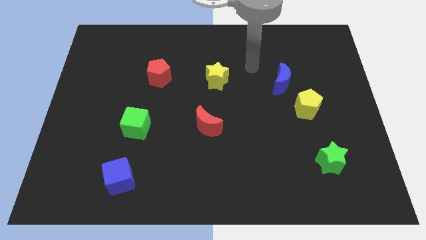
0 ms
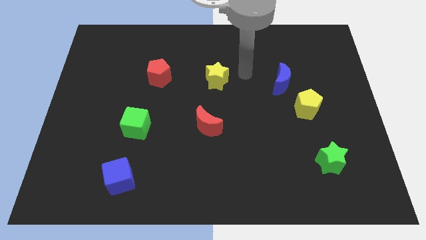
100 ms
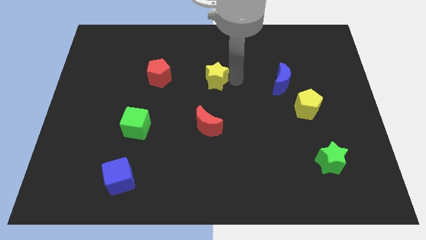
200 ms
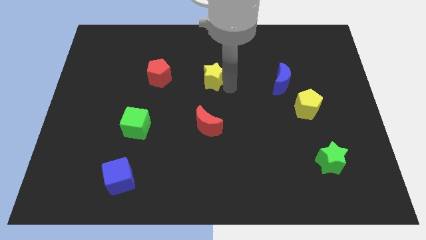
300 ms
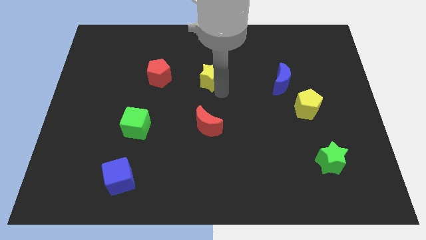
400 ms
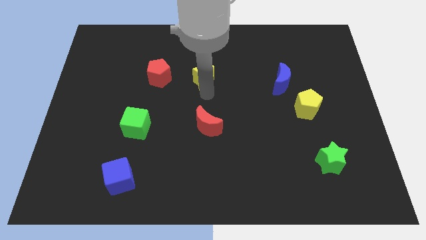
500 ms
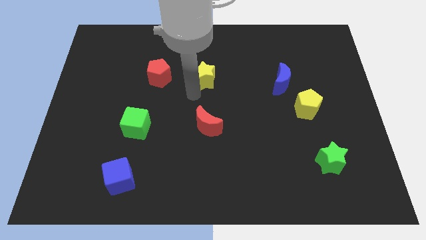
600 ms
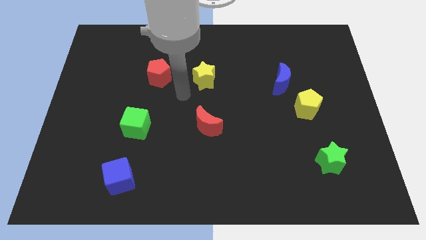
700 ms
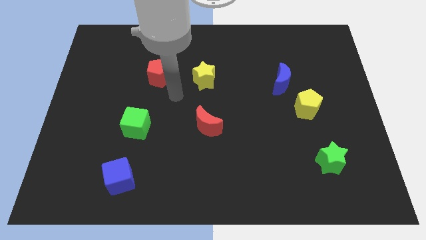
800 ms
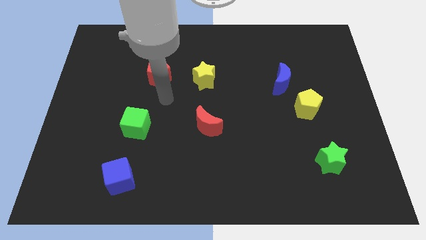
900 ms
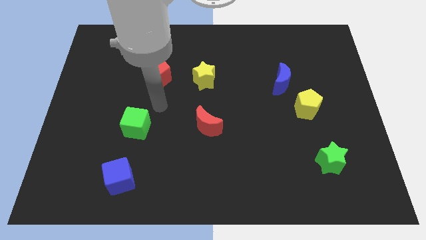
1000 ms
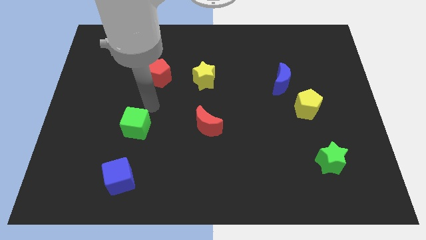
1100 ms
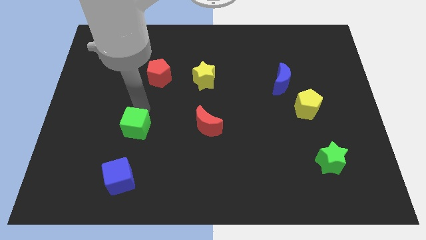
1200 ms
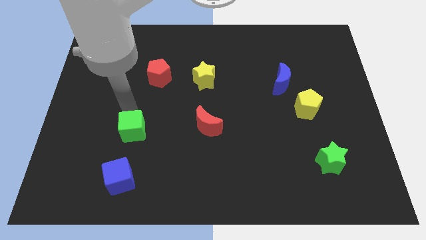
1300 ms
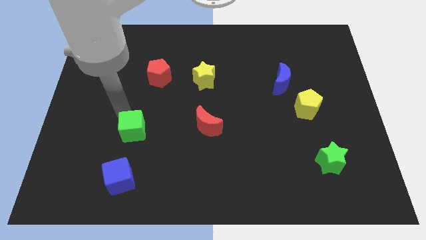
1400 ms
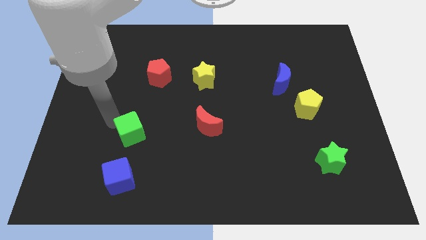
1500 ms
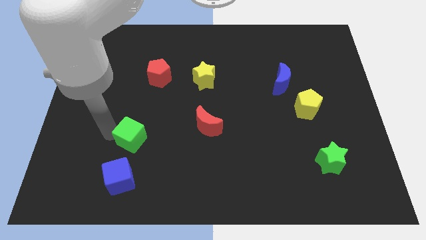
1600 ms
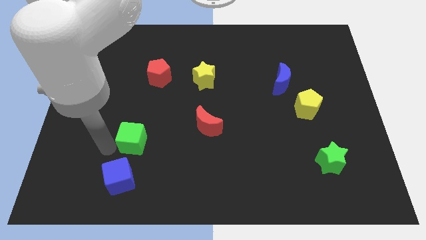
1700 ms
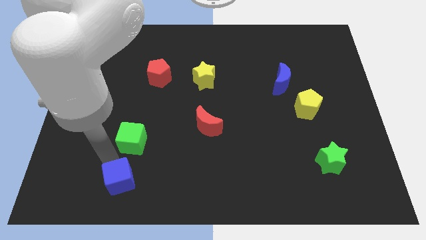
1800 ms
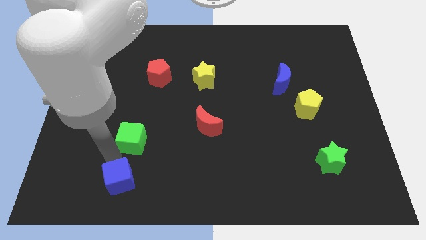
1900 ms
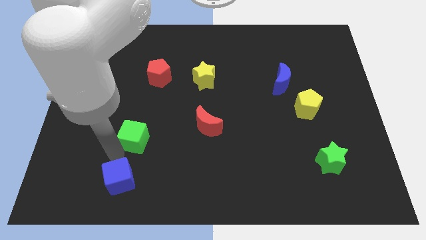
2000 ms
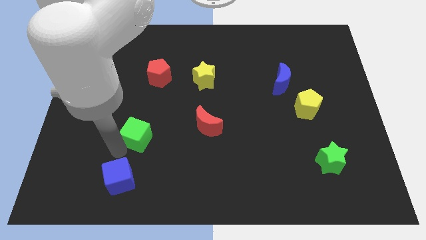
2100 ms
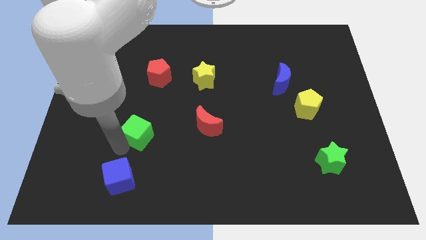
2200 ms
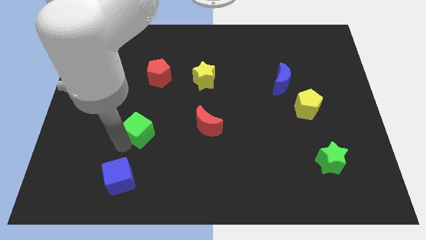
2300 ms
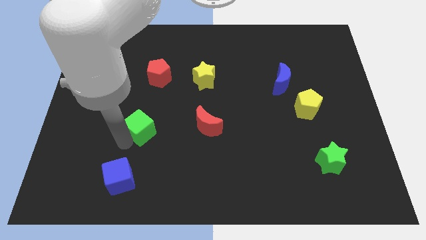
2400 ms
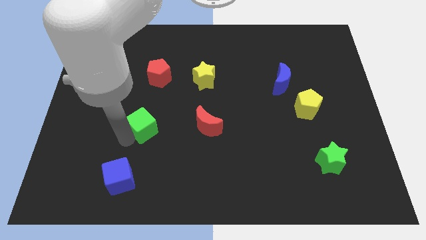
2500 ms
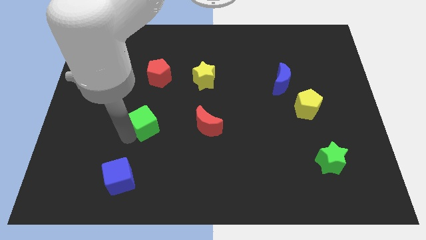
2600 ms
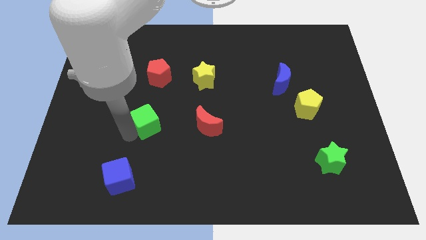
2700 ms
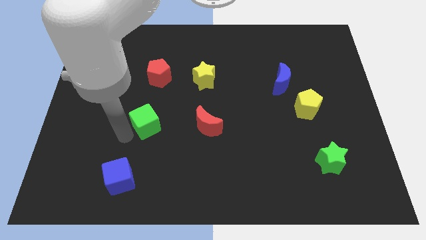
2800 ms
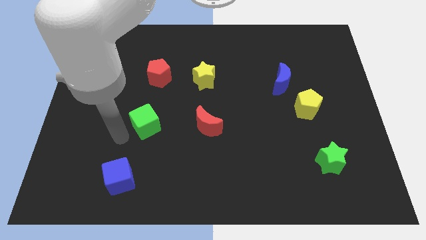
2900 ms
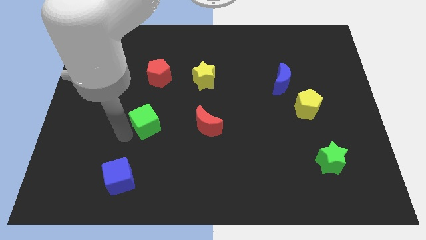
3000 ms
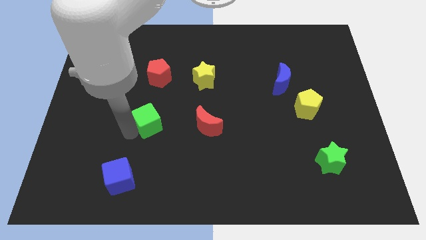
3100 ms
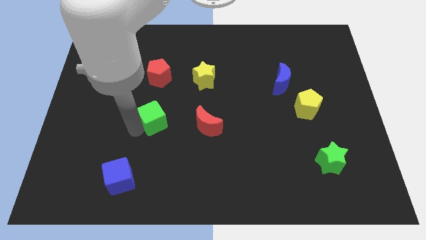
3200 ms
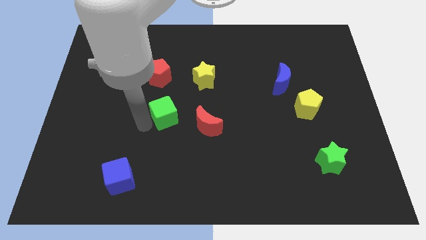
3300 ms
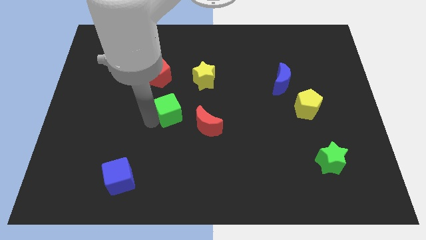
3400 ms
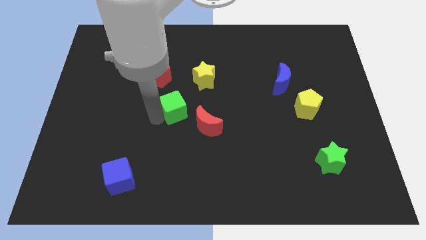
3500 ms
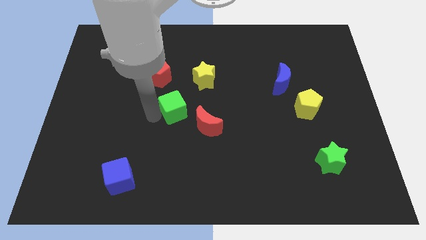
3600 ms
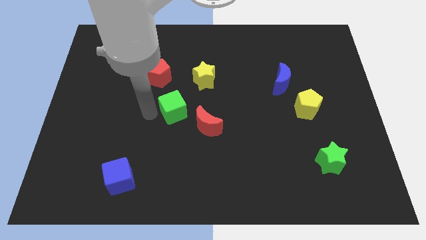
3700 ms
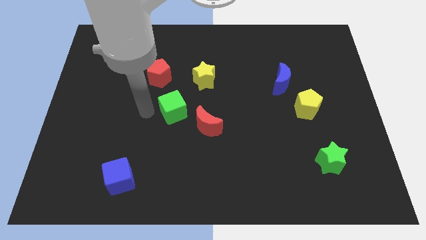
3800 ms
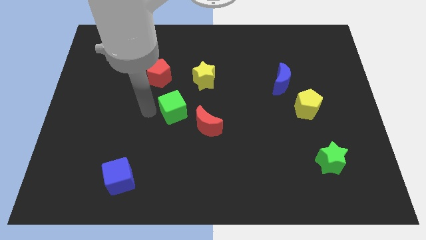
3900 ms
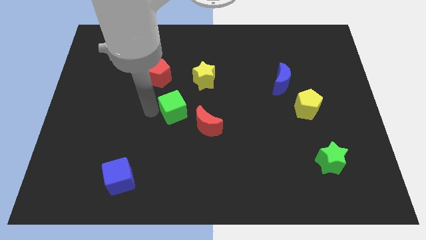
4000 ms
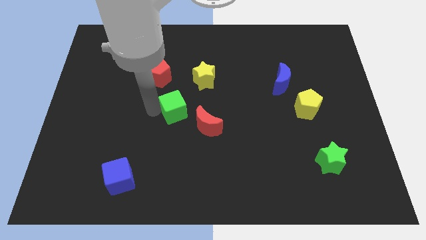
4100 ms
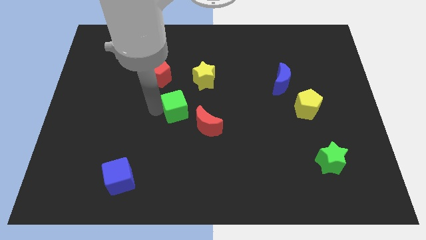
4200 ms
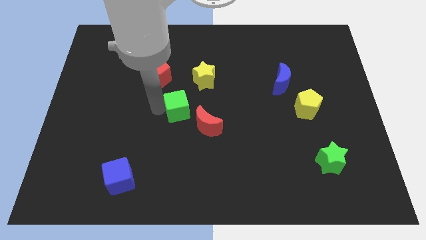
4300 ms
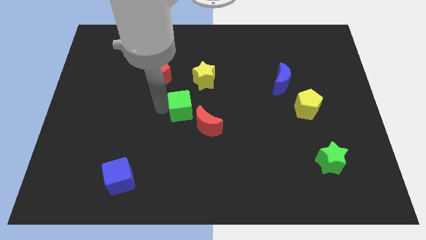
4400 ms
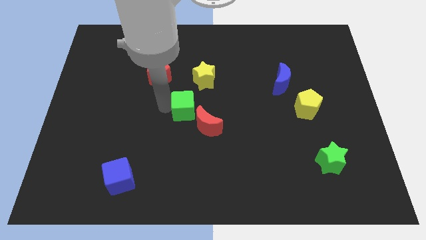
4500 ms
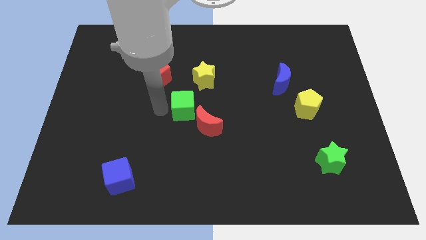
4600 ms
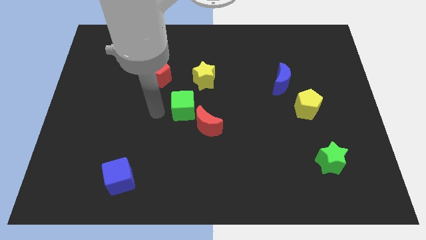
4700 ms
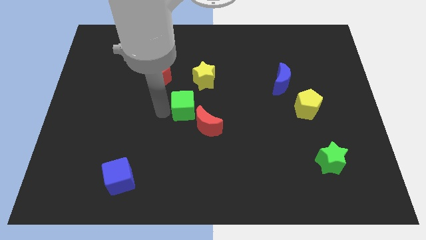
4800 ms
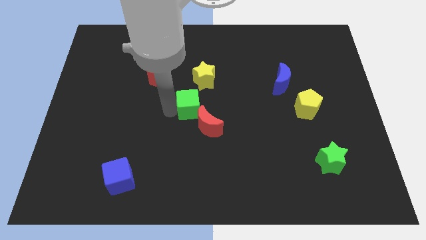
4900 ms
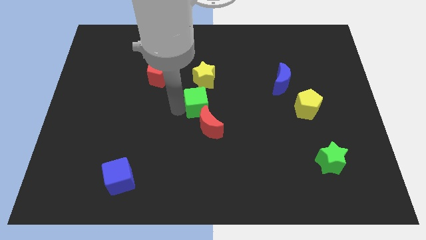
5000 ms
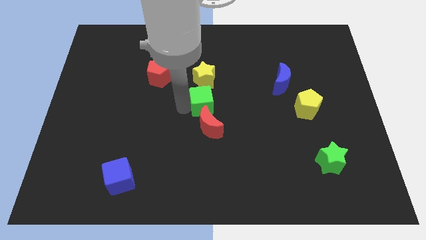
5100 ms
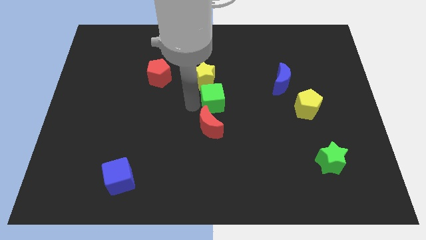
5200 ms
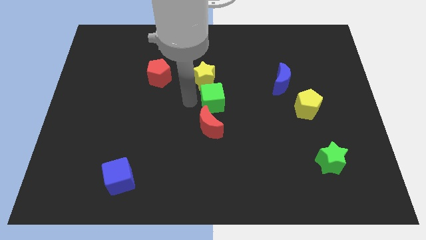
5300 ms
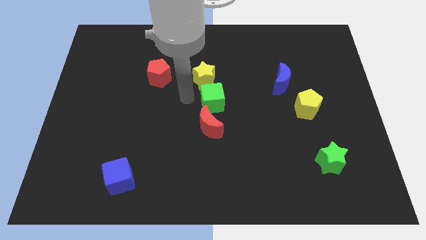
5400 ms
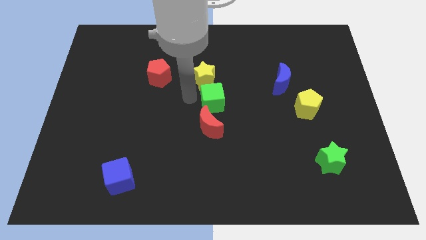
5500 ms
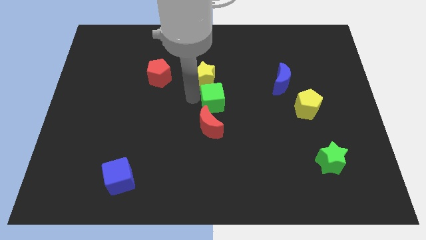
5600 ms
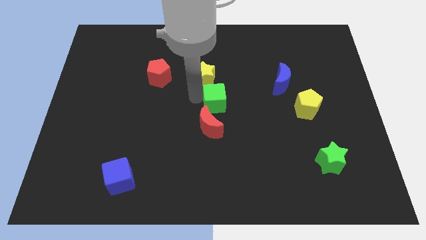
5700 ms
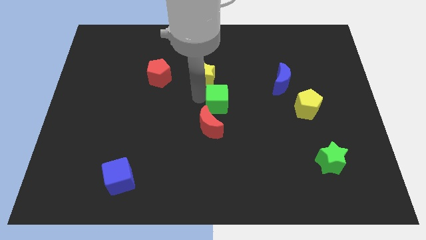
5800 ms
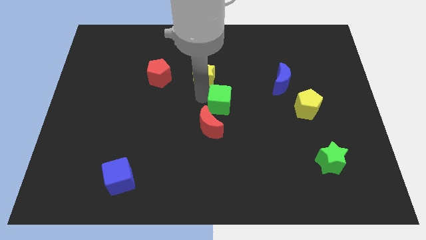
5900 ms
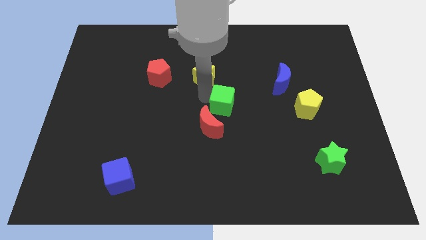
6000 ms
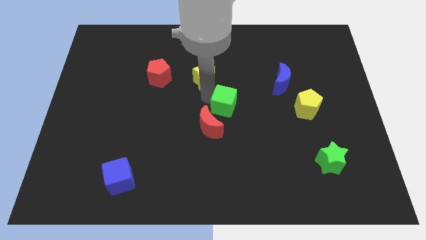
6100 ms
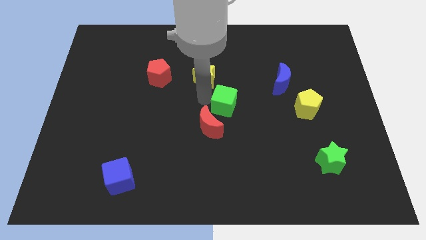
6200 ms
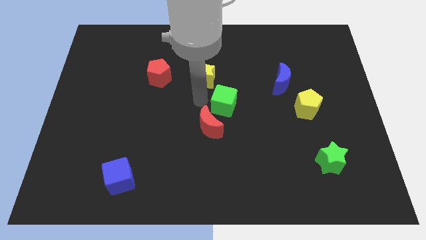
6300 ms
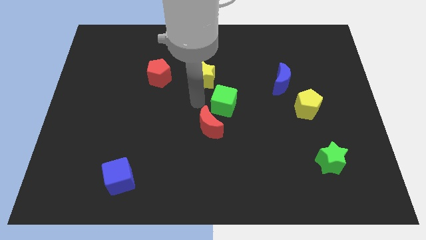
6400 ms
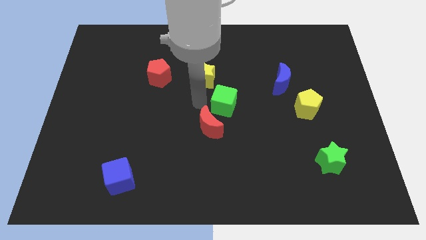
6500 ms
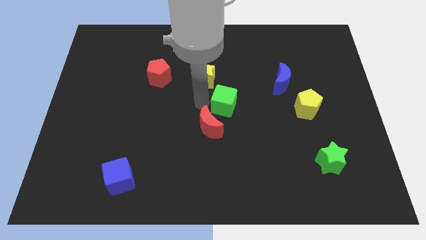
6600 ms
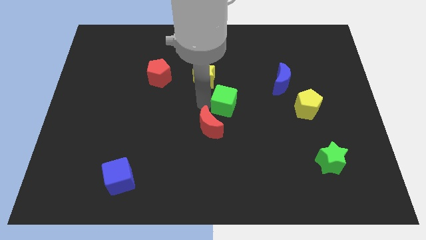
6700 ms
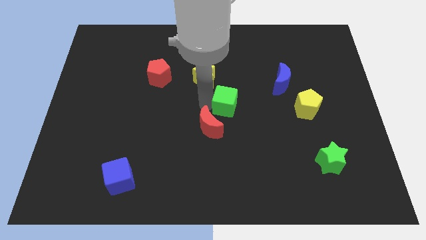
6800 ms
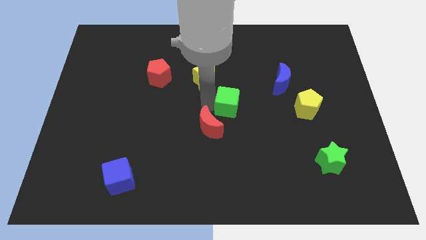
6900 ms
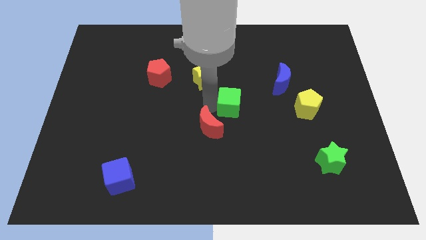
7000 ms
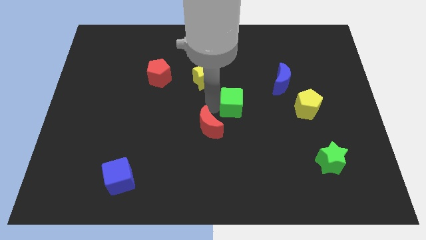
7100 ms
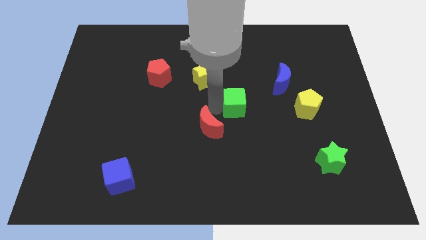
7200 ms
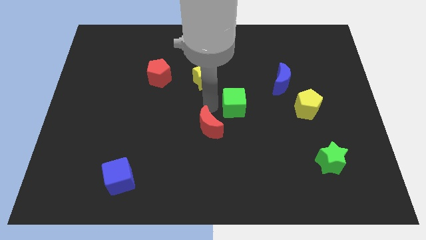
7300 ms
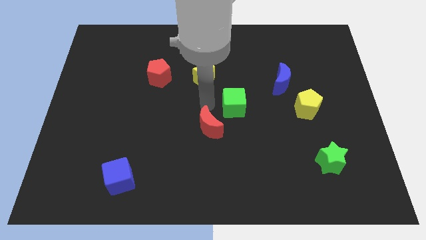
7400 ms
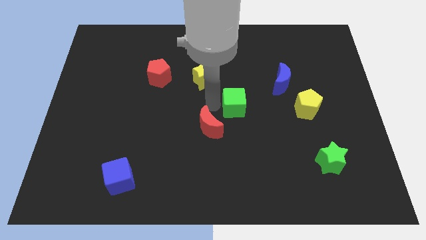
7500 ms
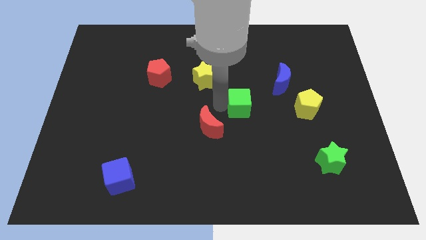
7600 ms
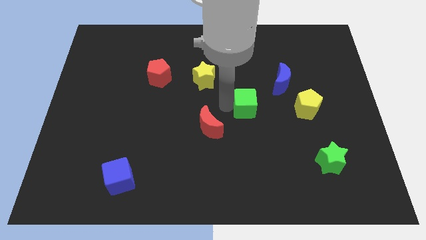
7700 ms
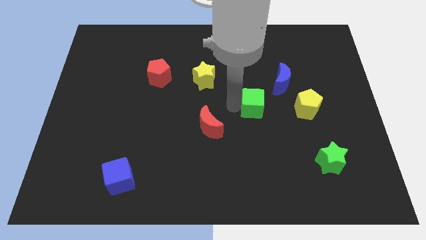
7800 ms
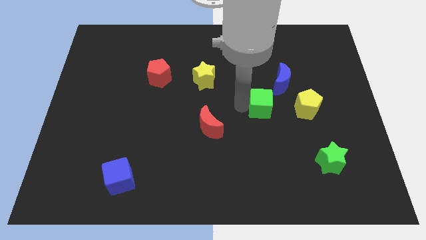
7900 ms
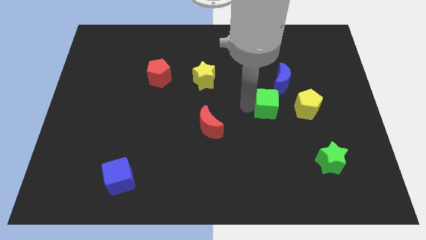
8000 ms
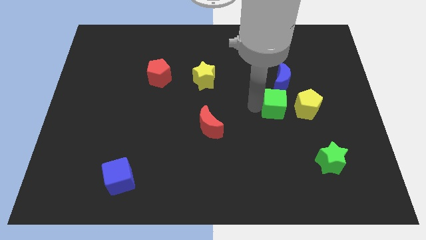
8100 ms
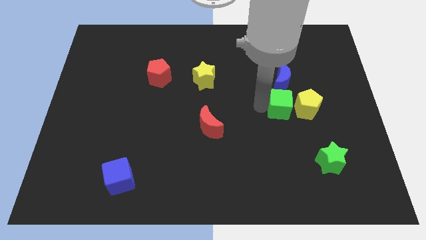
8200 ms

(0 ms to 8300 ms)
slide the green cube towards the yellow pentagon
